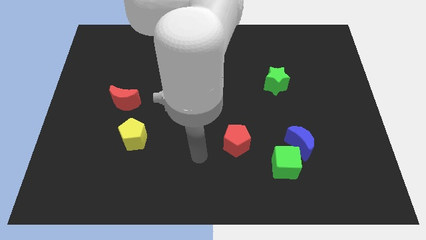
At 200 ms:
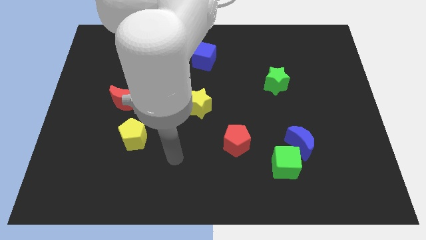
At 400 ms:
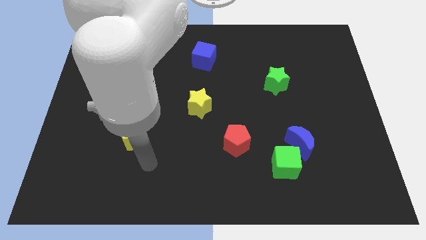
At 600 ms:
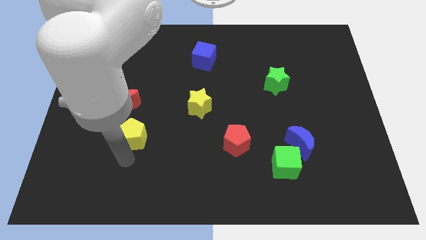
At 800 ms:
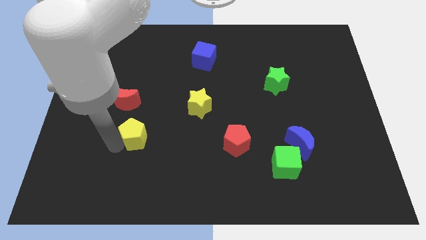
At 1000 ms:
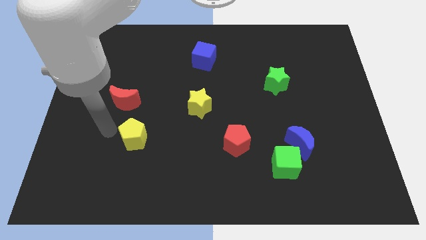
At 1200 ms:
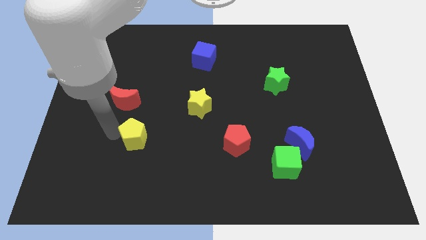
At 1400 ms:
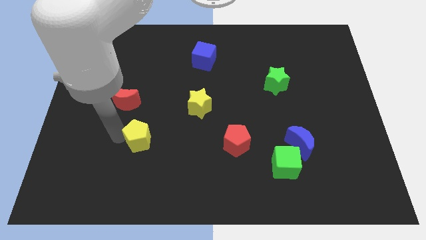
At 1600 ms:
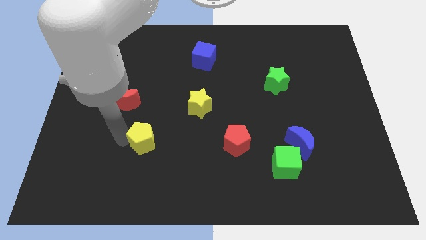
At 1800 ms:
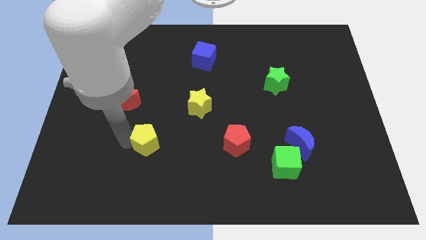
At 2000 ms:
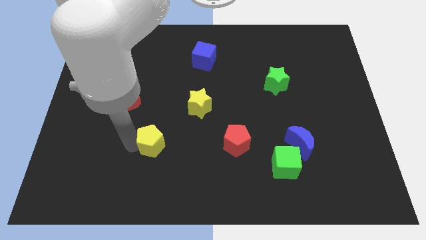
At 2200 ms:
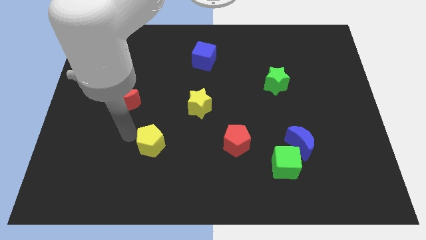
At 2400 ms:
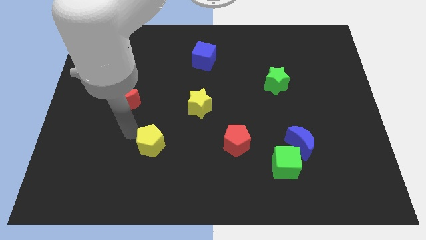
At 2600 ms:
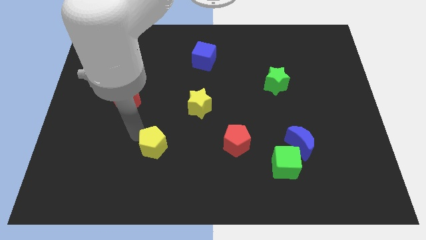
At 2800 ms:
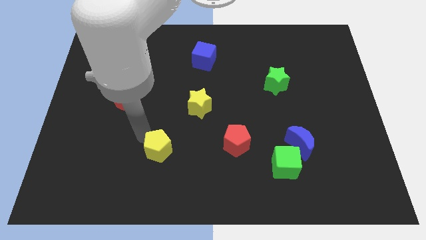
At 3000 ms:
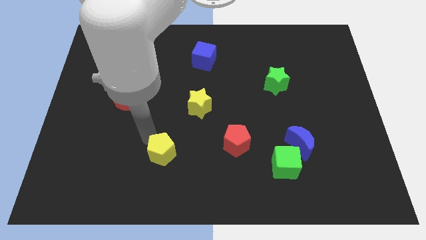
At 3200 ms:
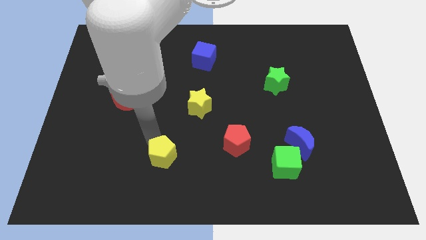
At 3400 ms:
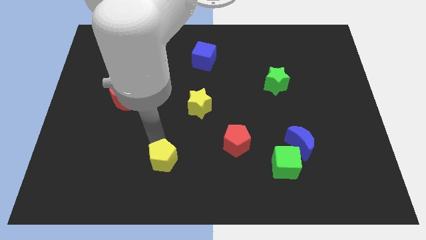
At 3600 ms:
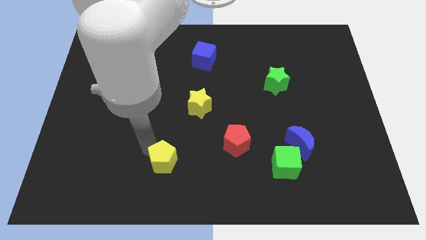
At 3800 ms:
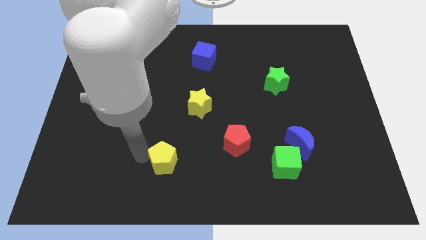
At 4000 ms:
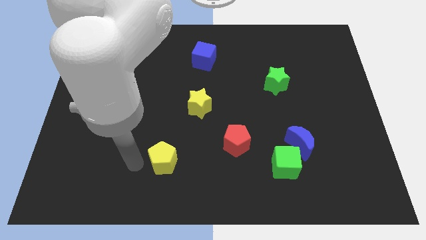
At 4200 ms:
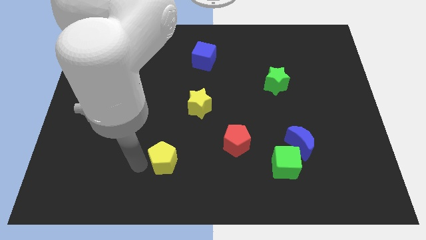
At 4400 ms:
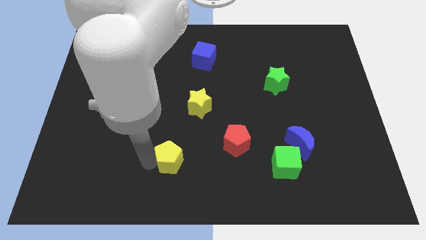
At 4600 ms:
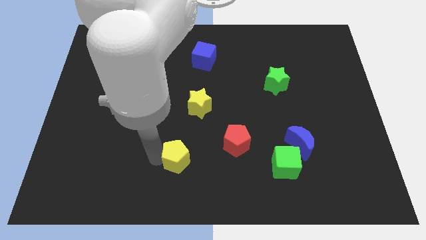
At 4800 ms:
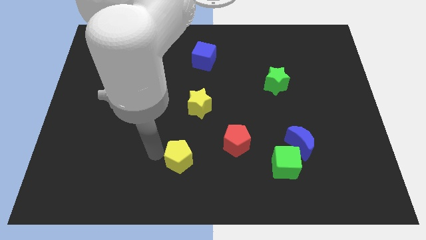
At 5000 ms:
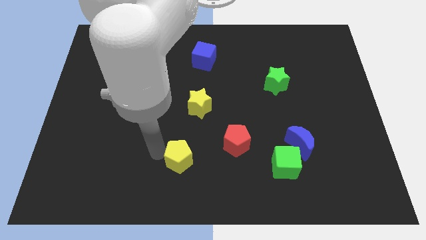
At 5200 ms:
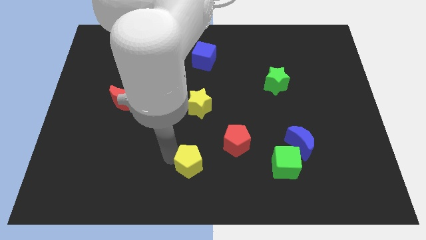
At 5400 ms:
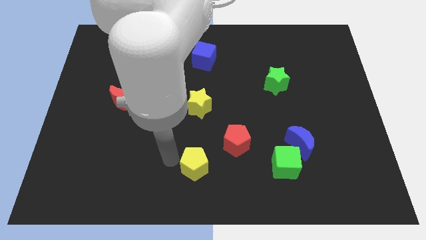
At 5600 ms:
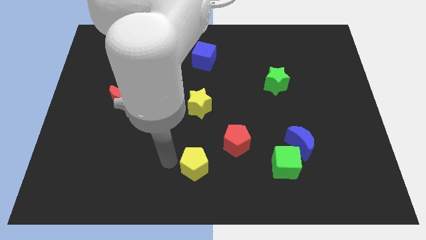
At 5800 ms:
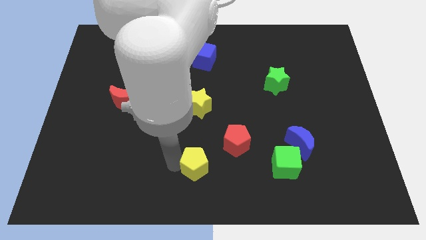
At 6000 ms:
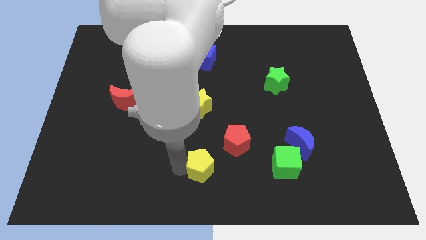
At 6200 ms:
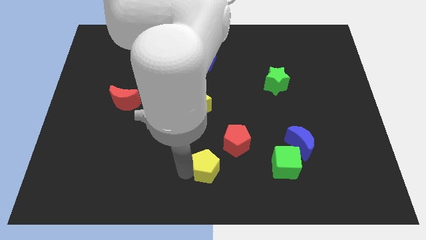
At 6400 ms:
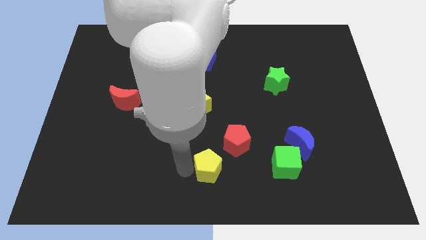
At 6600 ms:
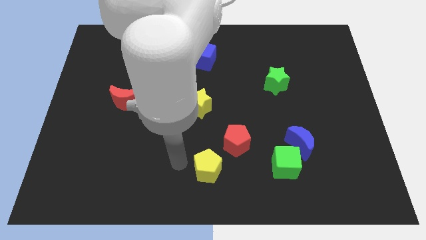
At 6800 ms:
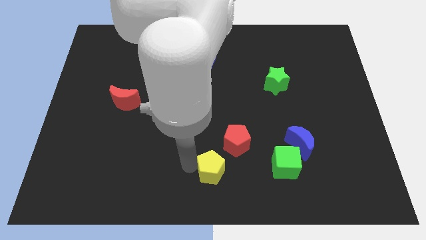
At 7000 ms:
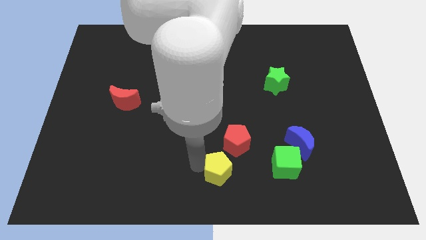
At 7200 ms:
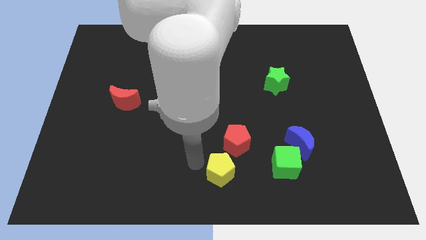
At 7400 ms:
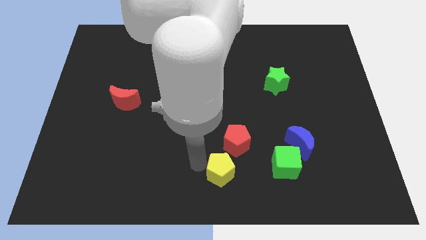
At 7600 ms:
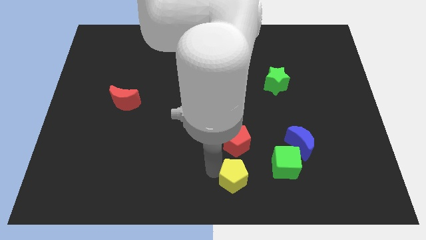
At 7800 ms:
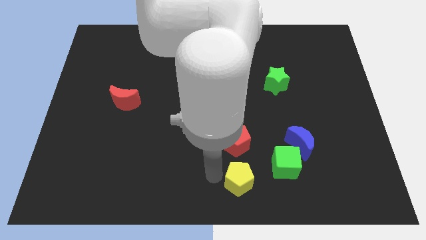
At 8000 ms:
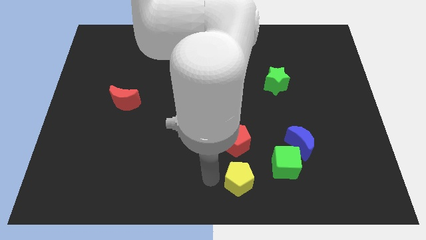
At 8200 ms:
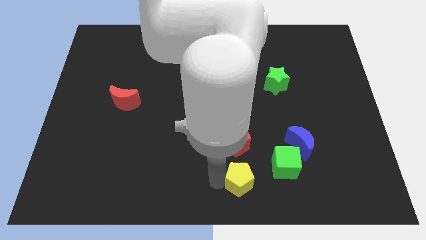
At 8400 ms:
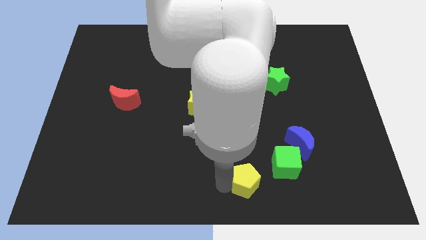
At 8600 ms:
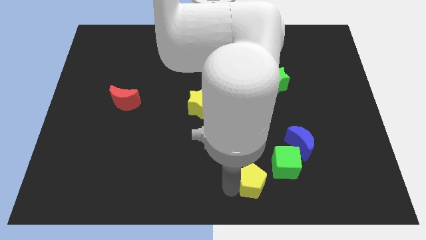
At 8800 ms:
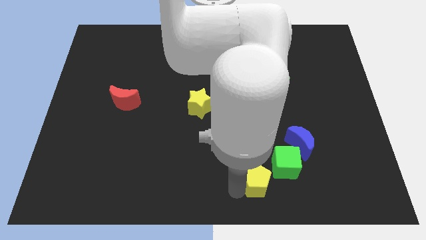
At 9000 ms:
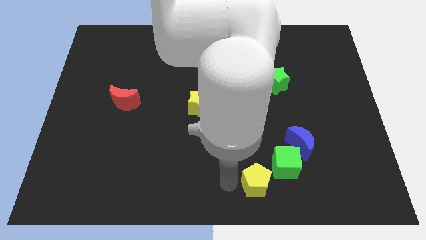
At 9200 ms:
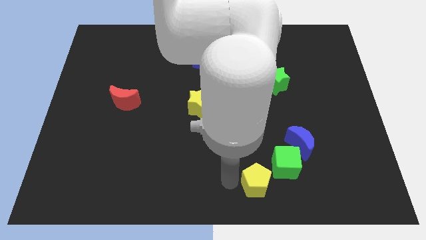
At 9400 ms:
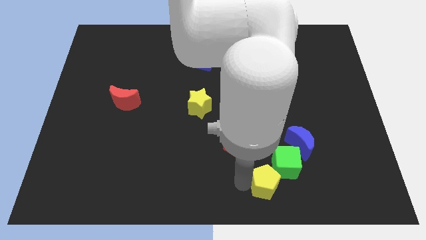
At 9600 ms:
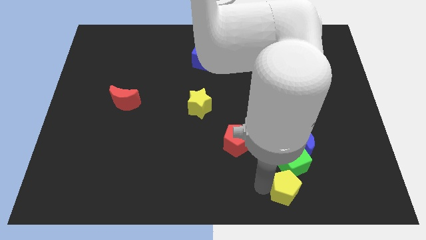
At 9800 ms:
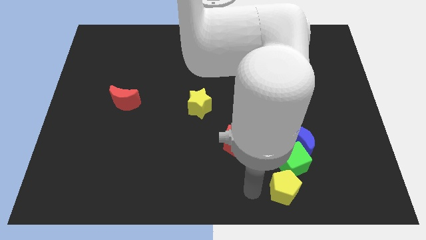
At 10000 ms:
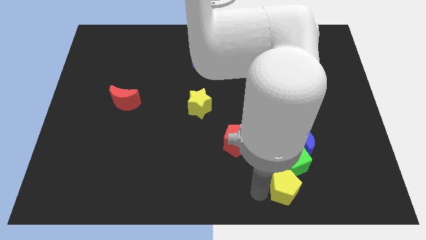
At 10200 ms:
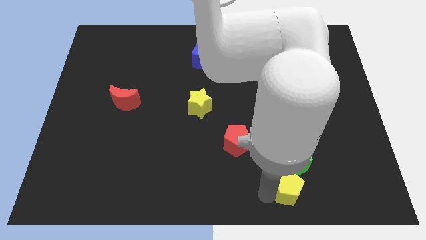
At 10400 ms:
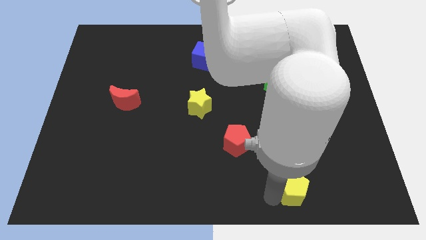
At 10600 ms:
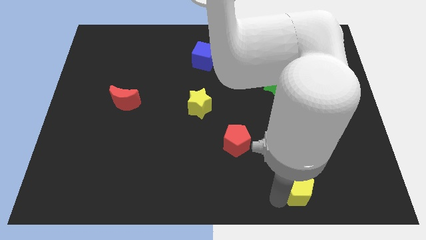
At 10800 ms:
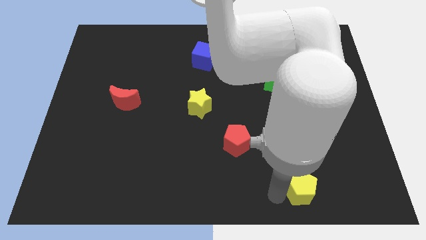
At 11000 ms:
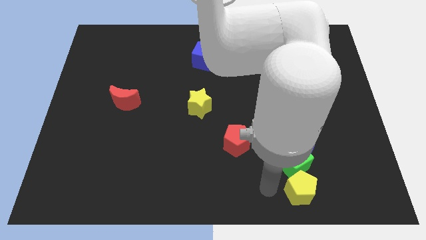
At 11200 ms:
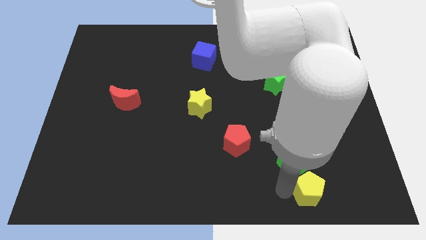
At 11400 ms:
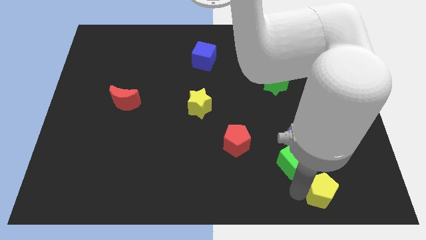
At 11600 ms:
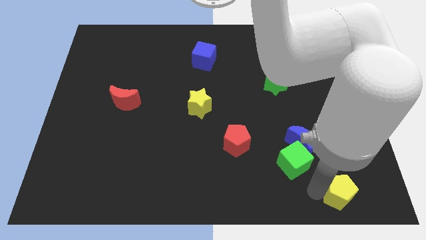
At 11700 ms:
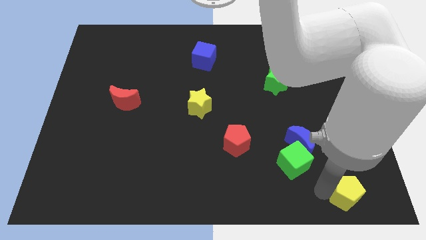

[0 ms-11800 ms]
put the yellow pentagon to the bottom right

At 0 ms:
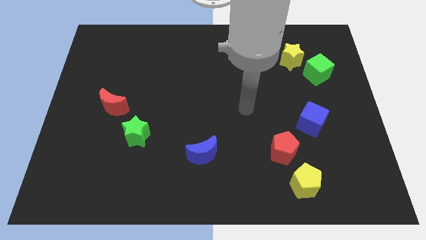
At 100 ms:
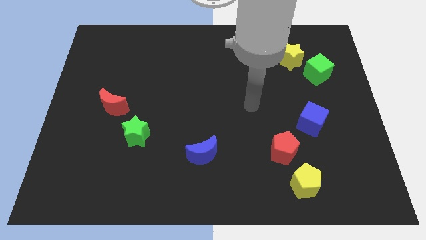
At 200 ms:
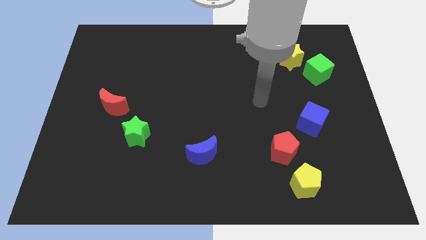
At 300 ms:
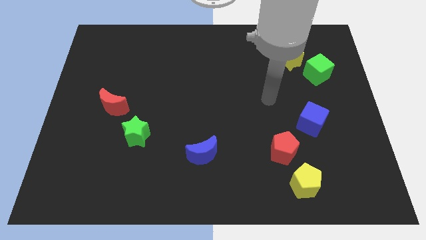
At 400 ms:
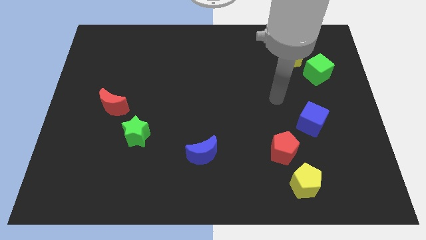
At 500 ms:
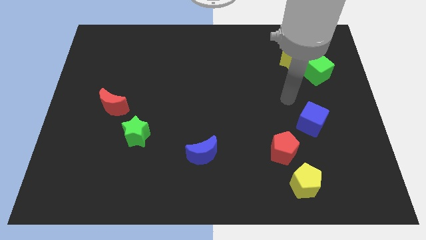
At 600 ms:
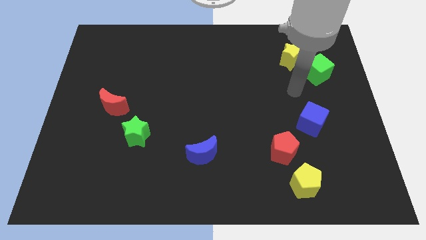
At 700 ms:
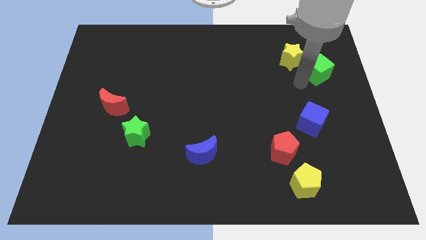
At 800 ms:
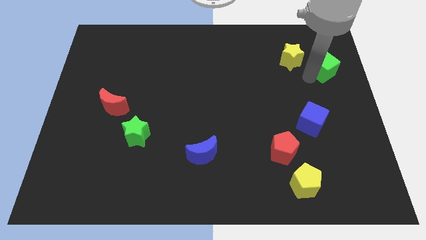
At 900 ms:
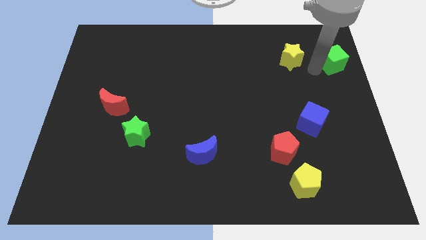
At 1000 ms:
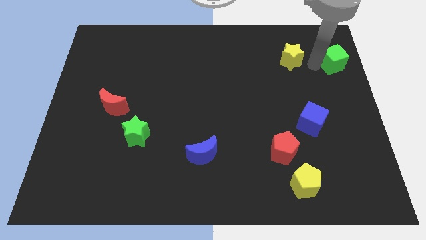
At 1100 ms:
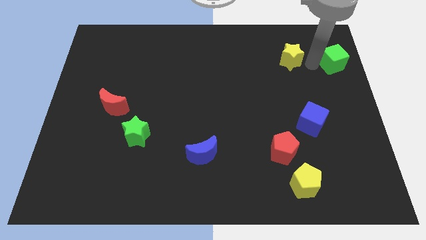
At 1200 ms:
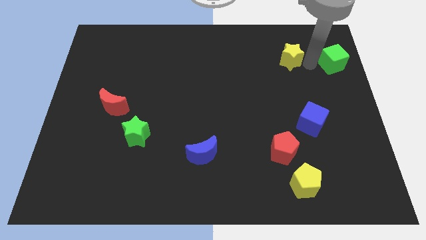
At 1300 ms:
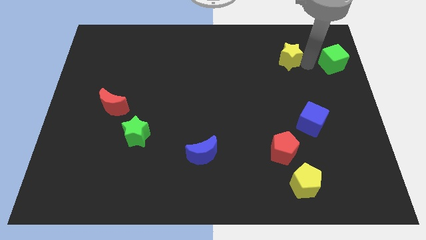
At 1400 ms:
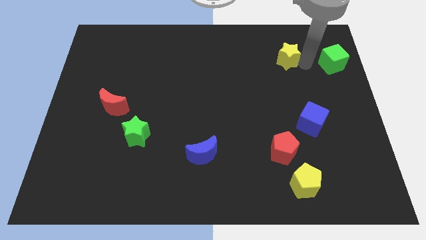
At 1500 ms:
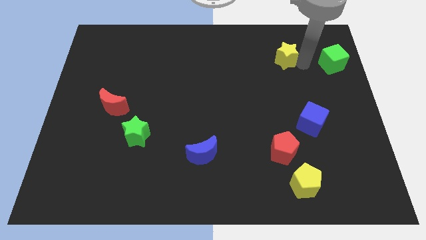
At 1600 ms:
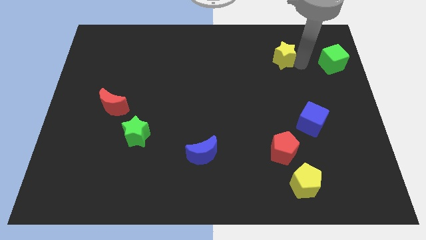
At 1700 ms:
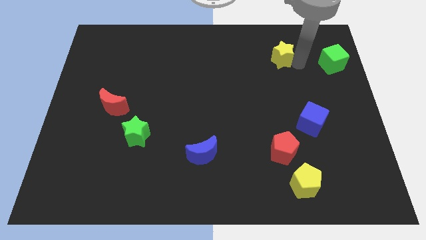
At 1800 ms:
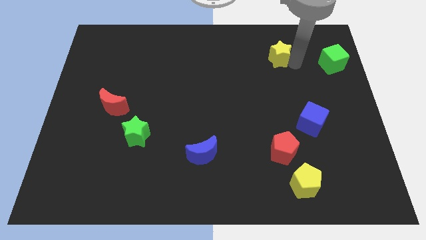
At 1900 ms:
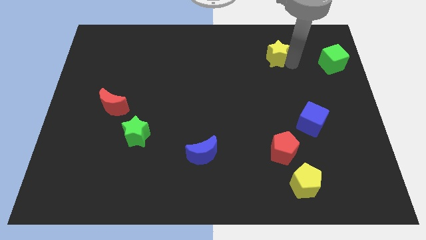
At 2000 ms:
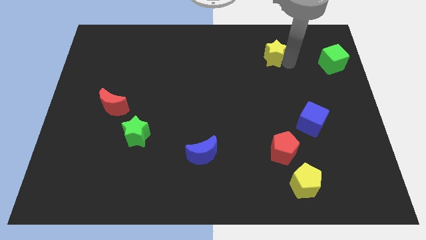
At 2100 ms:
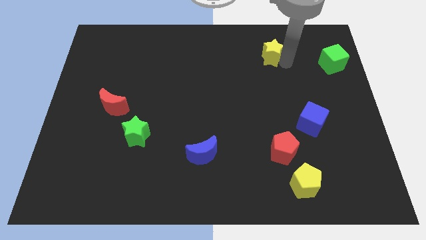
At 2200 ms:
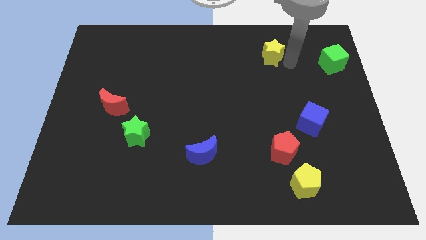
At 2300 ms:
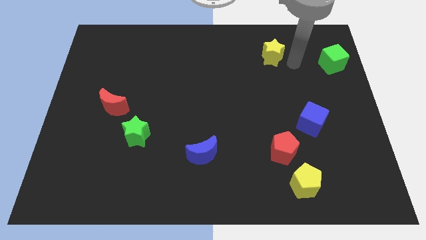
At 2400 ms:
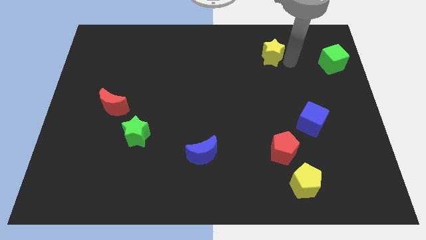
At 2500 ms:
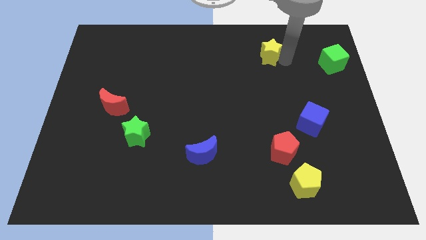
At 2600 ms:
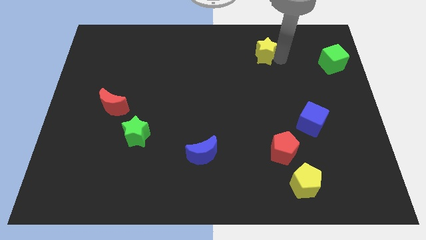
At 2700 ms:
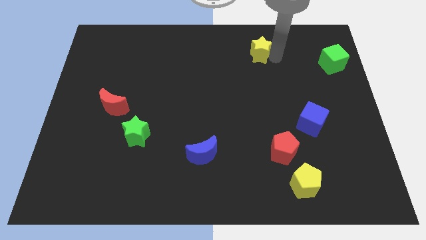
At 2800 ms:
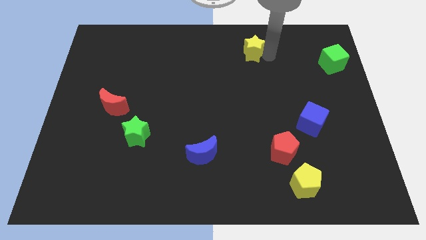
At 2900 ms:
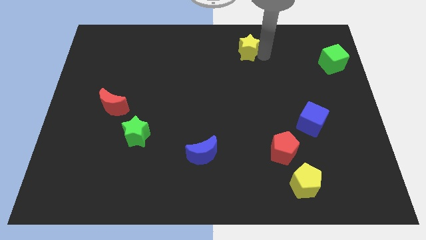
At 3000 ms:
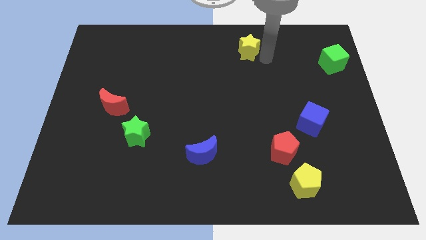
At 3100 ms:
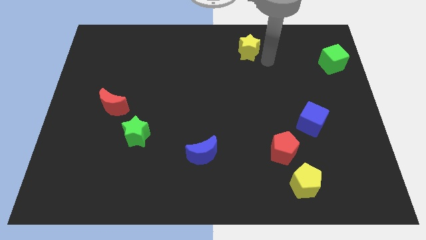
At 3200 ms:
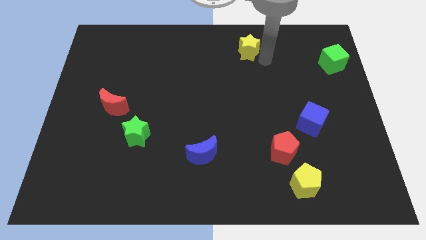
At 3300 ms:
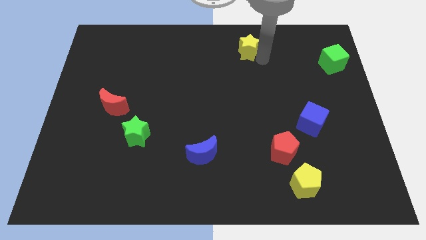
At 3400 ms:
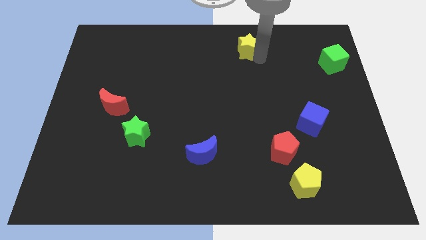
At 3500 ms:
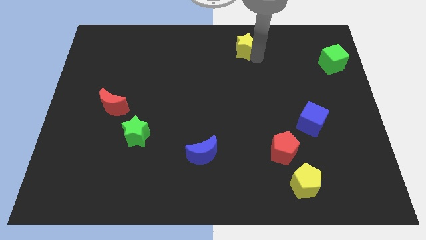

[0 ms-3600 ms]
slide the yellow star to the towards your base
